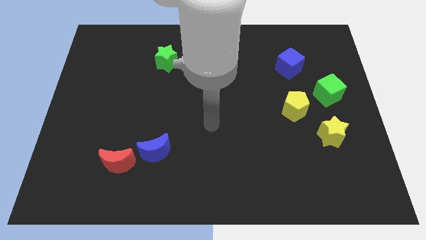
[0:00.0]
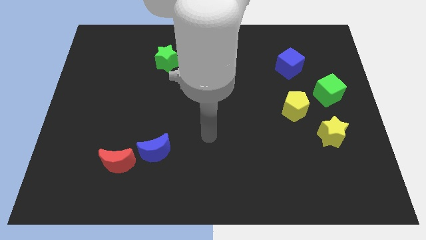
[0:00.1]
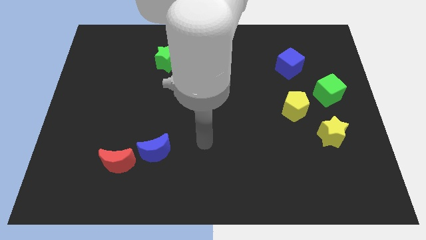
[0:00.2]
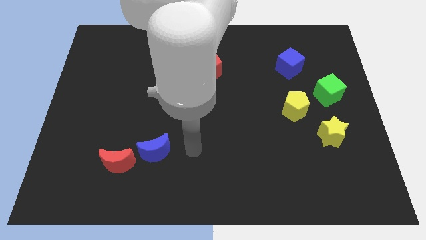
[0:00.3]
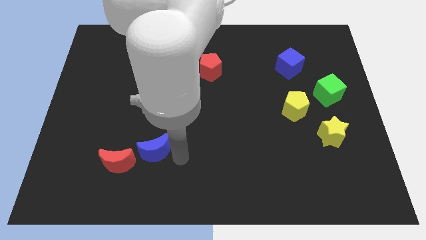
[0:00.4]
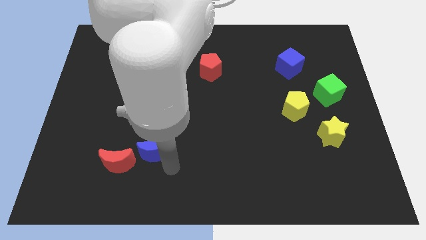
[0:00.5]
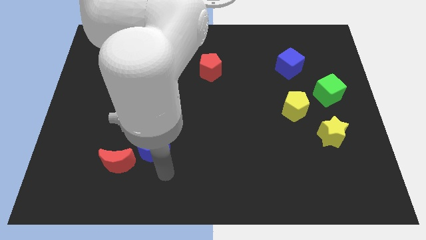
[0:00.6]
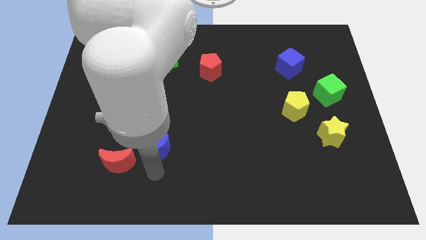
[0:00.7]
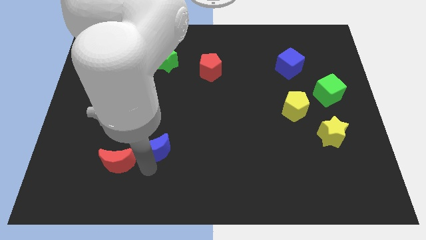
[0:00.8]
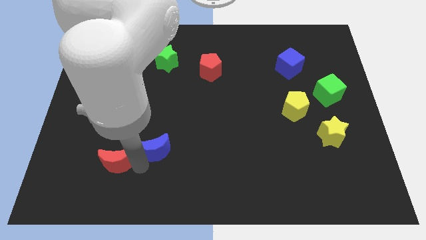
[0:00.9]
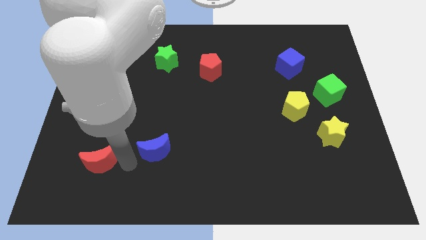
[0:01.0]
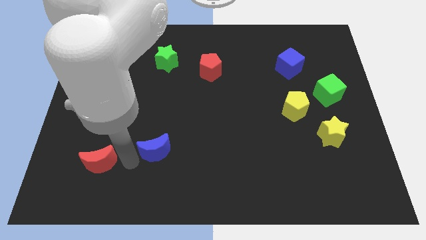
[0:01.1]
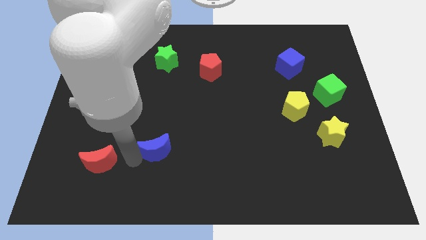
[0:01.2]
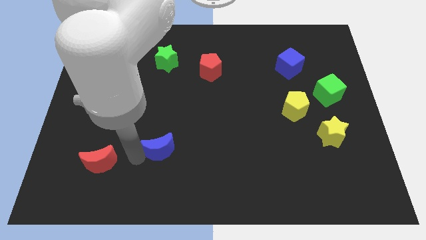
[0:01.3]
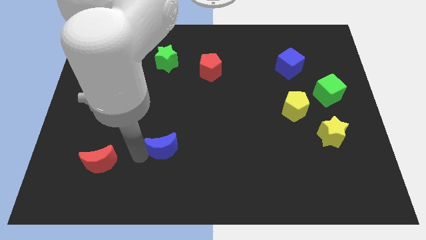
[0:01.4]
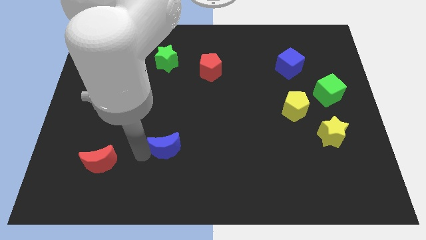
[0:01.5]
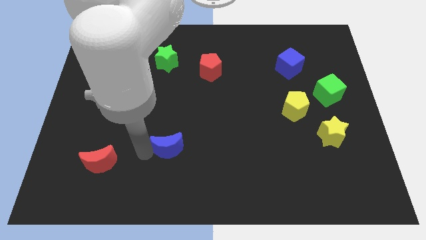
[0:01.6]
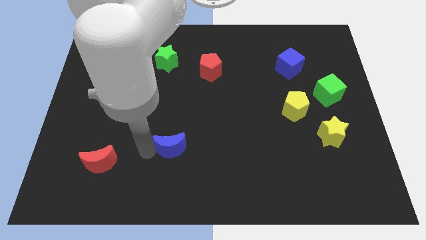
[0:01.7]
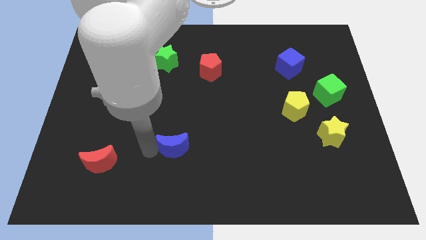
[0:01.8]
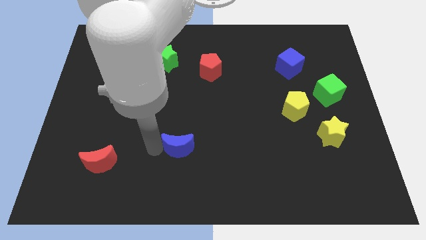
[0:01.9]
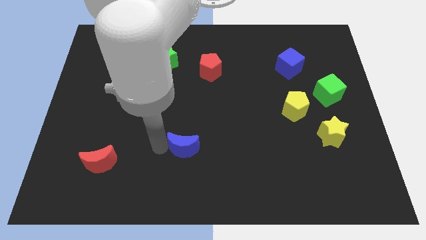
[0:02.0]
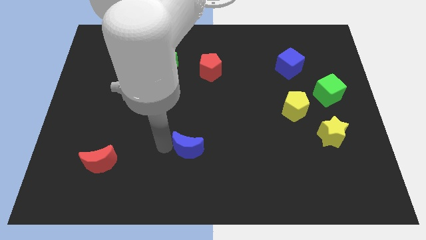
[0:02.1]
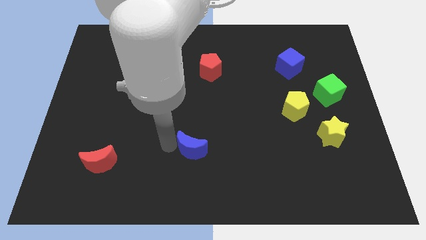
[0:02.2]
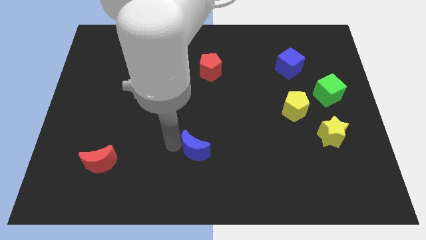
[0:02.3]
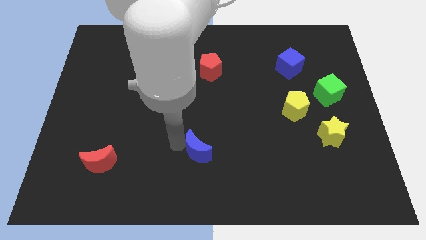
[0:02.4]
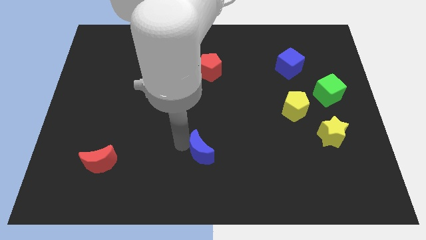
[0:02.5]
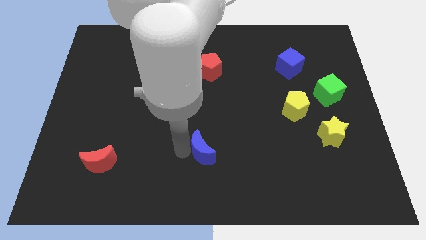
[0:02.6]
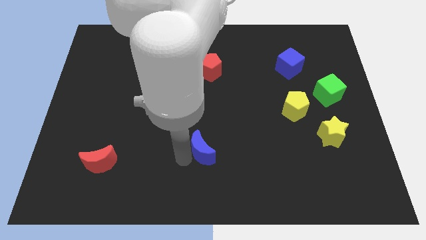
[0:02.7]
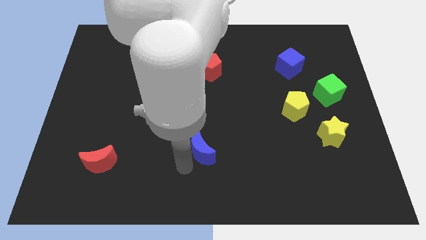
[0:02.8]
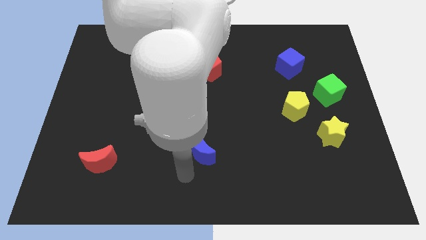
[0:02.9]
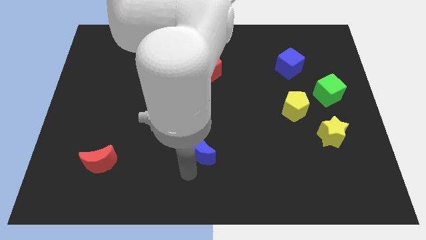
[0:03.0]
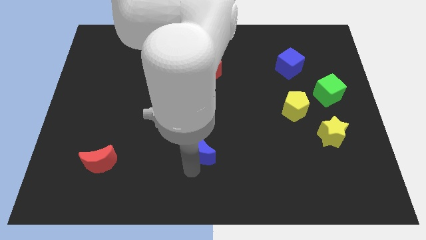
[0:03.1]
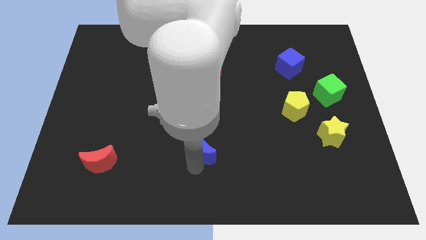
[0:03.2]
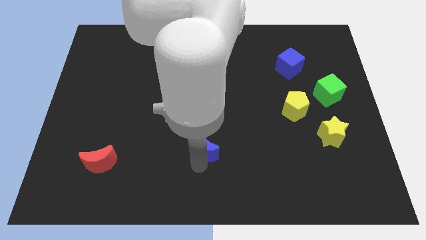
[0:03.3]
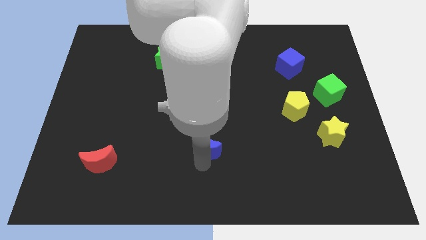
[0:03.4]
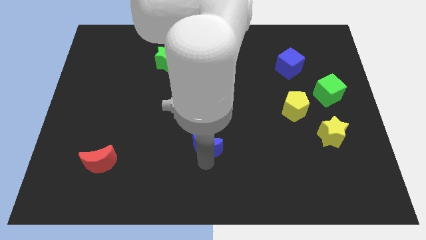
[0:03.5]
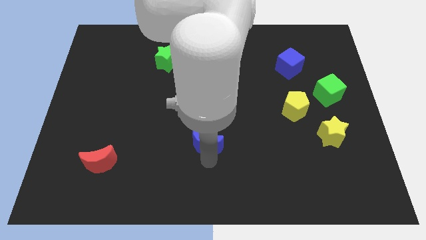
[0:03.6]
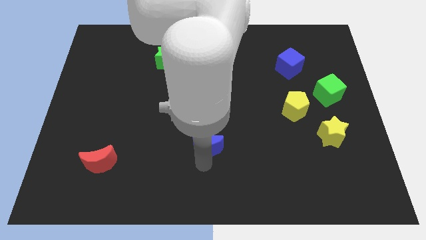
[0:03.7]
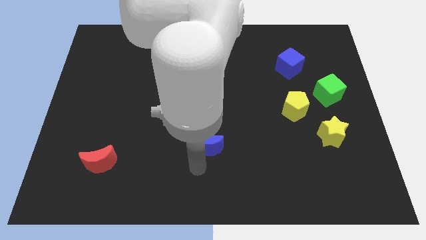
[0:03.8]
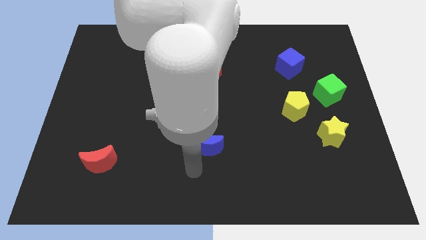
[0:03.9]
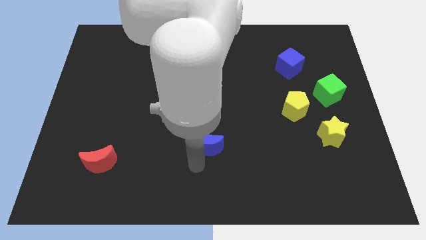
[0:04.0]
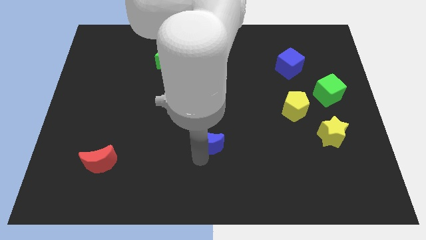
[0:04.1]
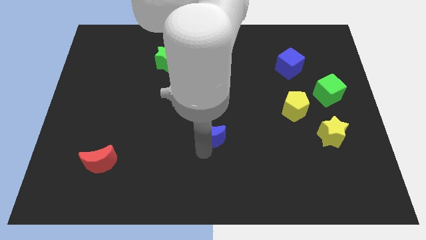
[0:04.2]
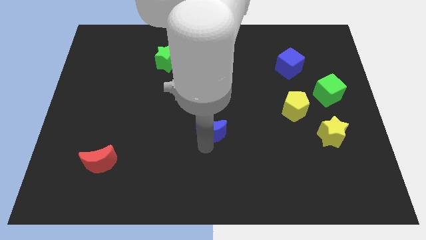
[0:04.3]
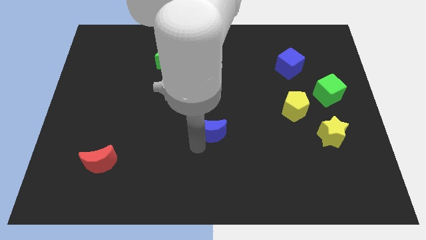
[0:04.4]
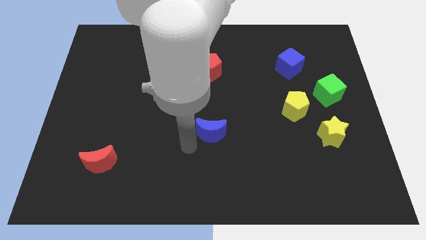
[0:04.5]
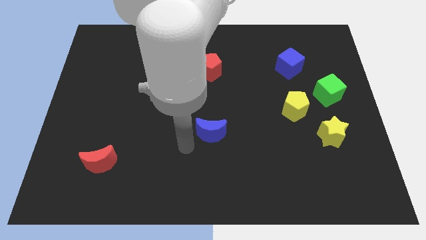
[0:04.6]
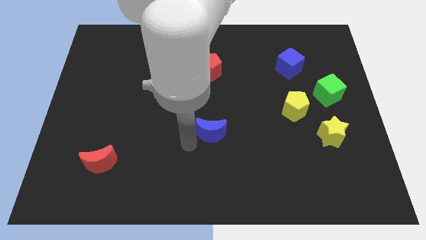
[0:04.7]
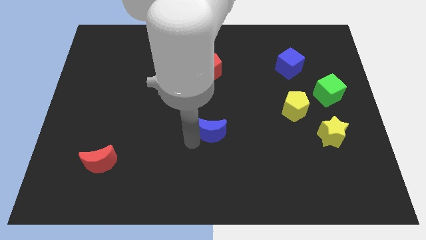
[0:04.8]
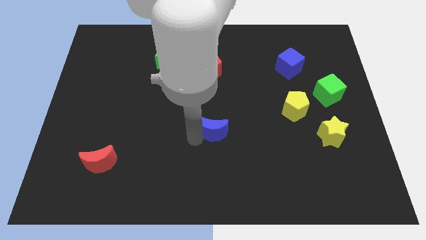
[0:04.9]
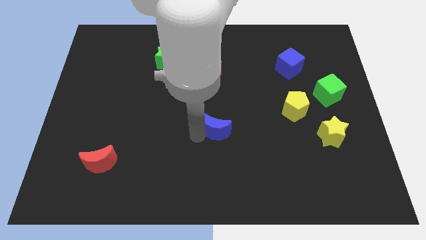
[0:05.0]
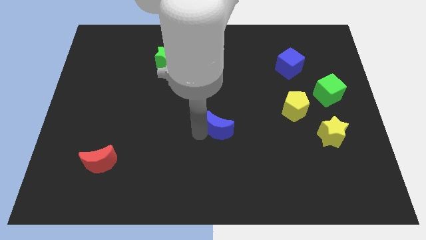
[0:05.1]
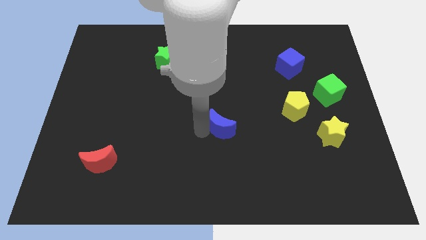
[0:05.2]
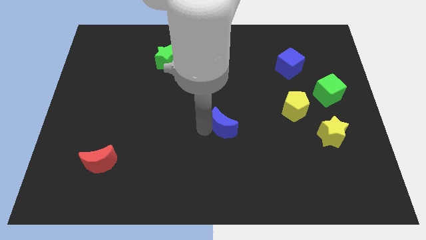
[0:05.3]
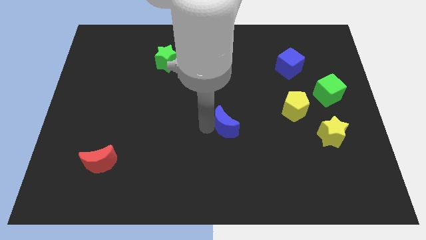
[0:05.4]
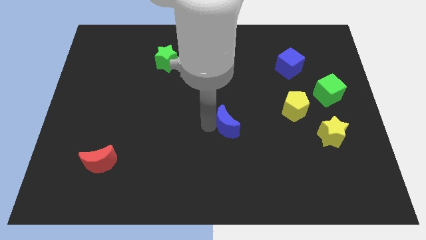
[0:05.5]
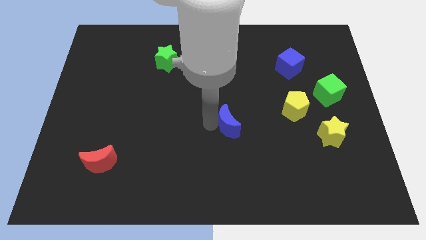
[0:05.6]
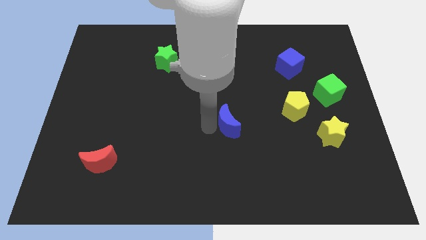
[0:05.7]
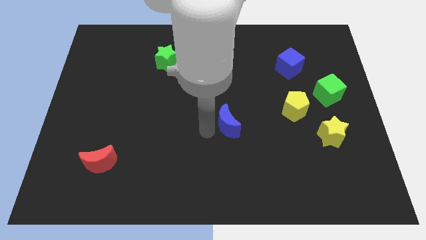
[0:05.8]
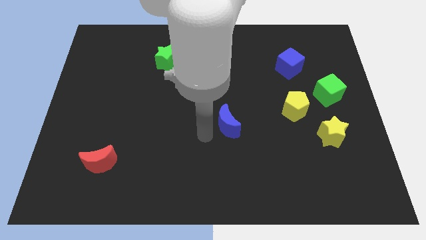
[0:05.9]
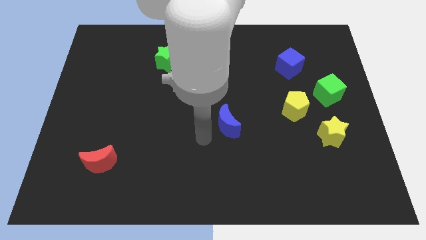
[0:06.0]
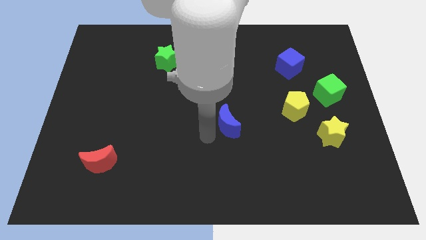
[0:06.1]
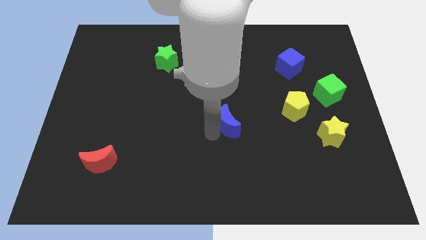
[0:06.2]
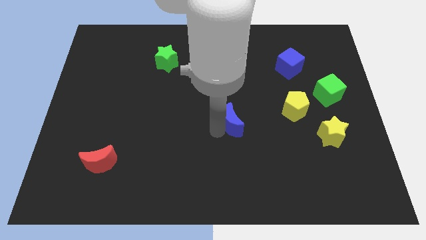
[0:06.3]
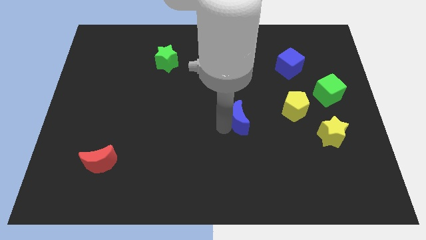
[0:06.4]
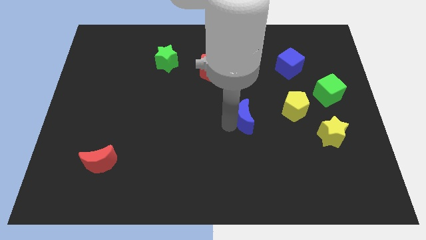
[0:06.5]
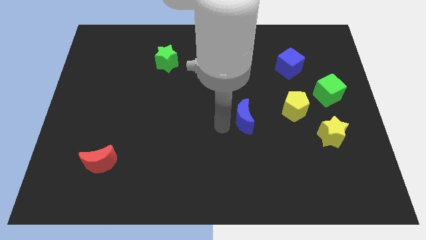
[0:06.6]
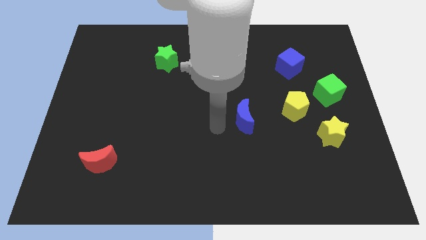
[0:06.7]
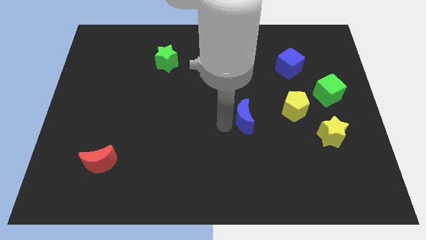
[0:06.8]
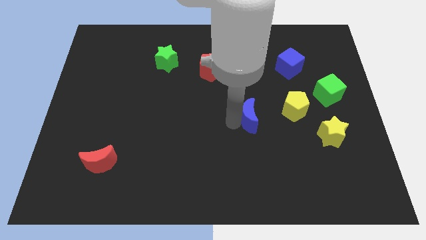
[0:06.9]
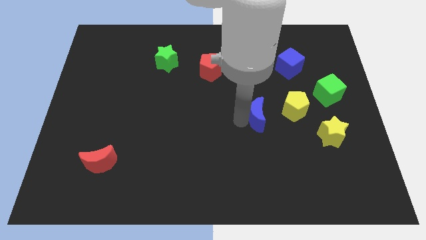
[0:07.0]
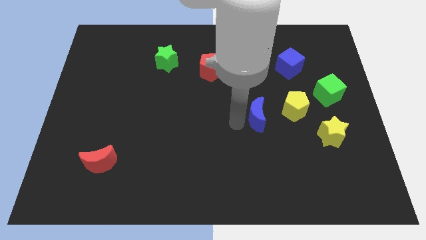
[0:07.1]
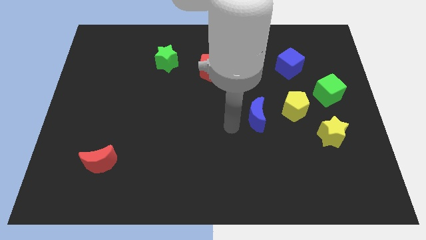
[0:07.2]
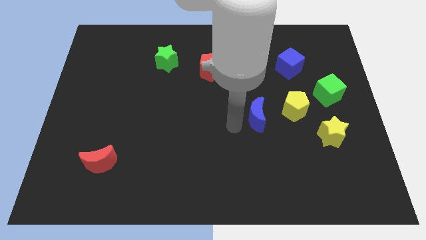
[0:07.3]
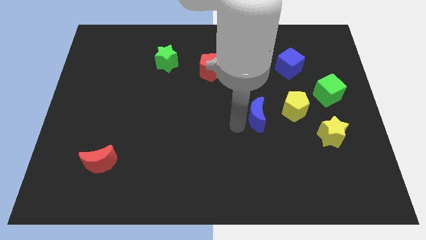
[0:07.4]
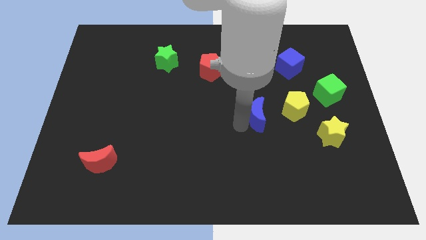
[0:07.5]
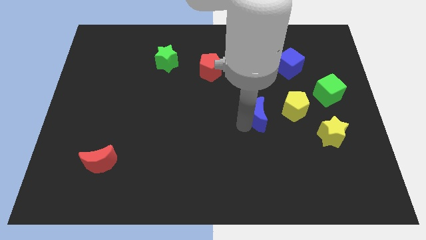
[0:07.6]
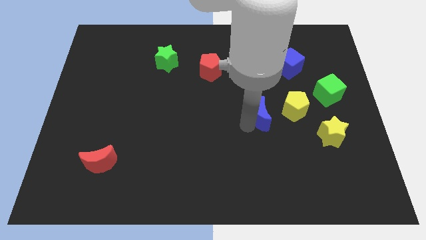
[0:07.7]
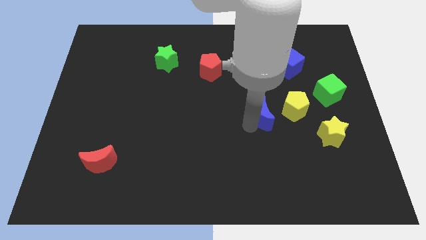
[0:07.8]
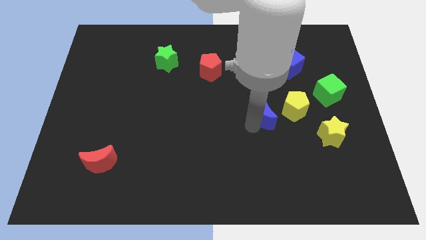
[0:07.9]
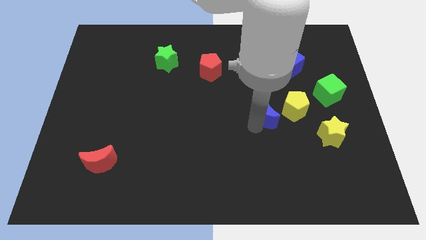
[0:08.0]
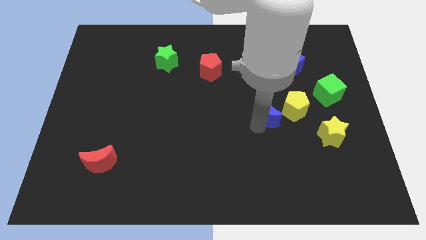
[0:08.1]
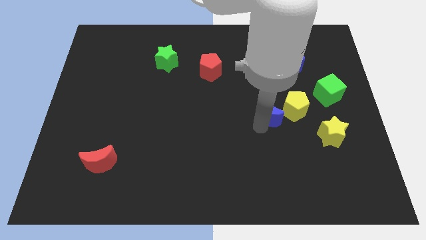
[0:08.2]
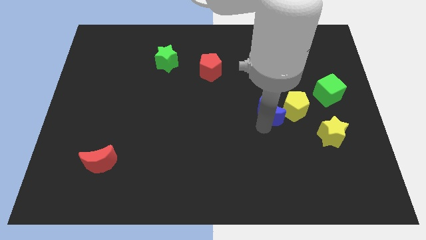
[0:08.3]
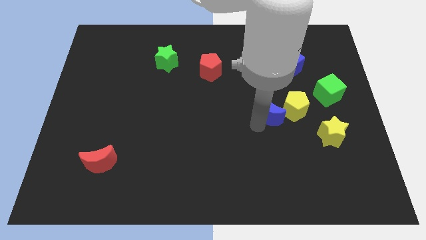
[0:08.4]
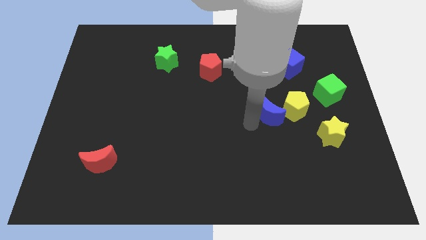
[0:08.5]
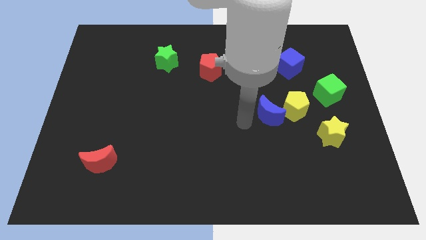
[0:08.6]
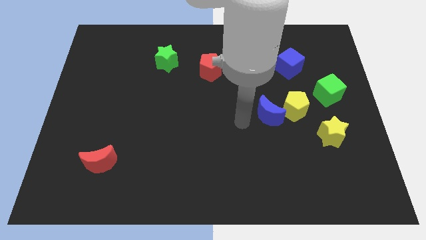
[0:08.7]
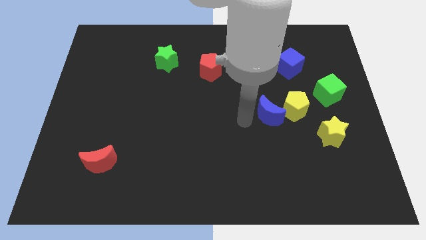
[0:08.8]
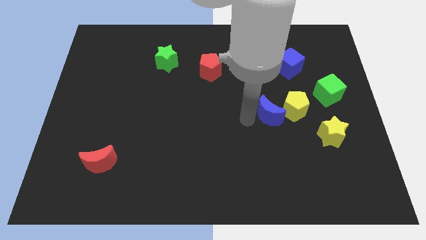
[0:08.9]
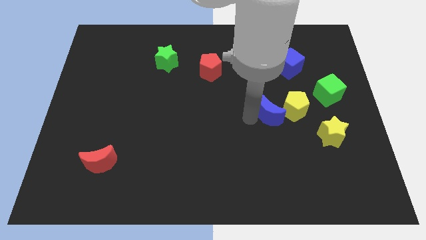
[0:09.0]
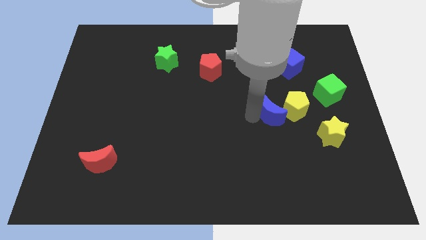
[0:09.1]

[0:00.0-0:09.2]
move the blue moon close to the yellow pentagon
